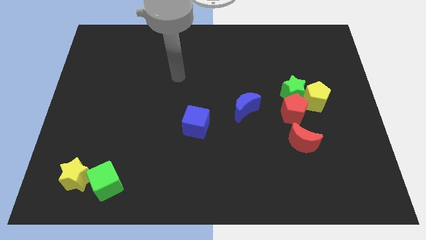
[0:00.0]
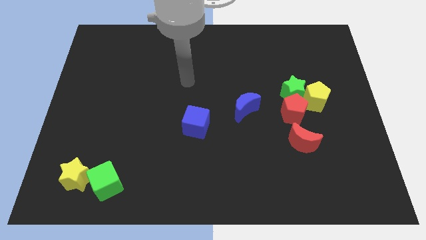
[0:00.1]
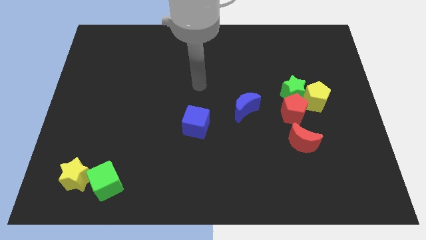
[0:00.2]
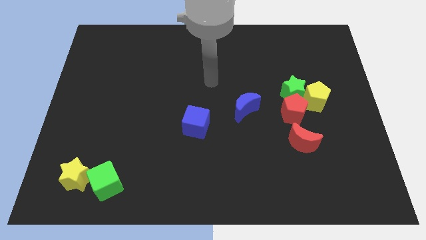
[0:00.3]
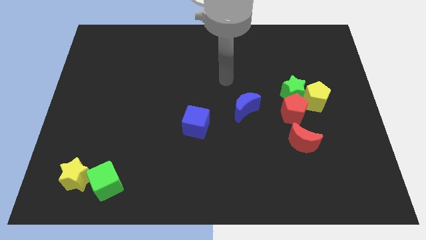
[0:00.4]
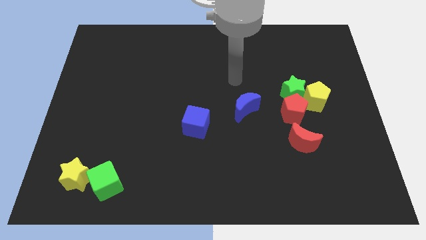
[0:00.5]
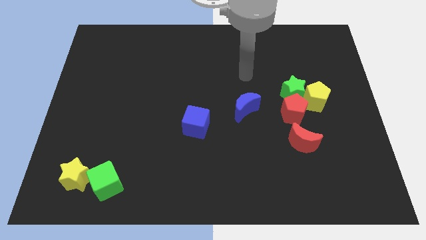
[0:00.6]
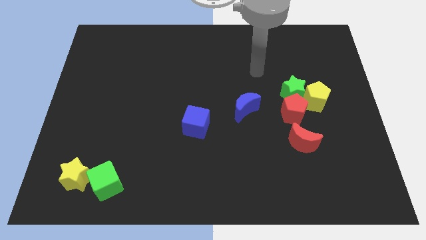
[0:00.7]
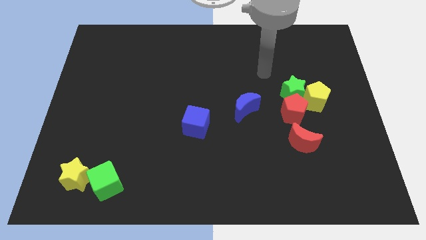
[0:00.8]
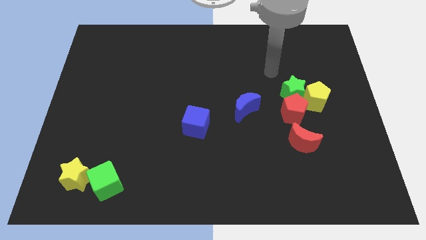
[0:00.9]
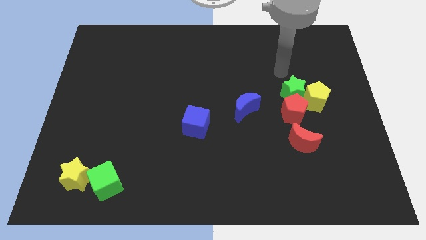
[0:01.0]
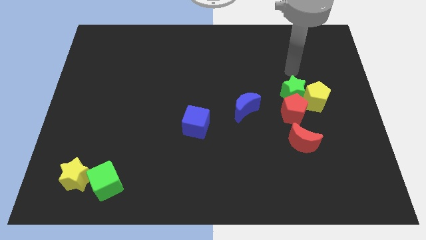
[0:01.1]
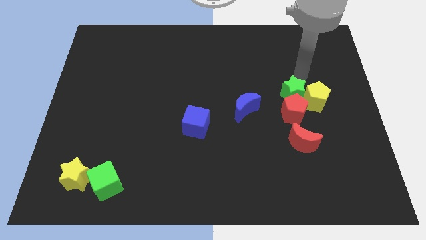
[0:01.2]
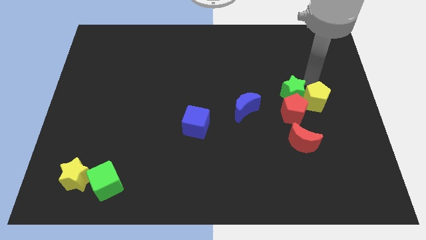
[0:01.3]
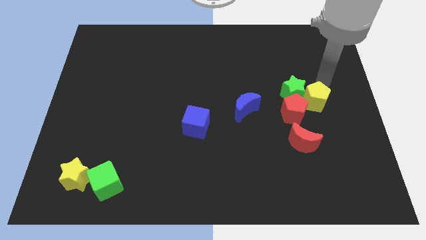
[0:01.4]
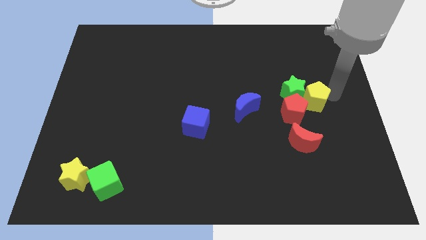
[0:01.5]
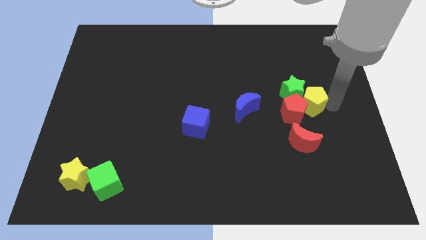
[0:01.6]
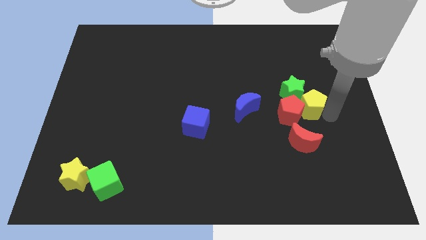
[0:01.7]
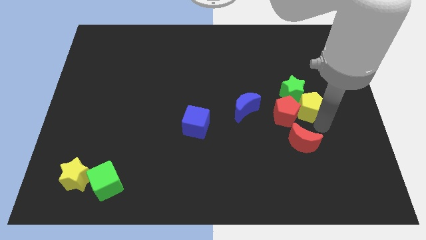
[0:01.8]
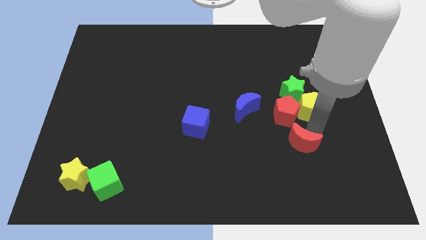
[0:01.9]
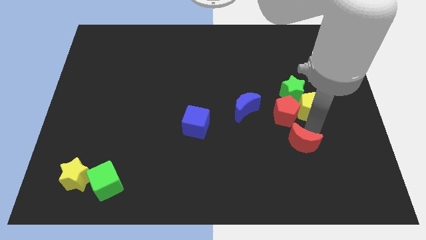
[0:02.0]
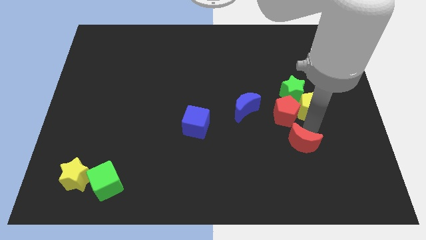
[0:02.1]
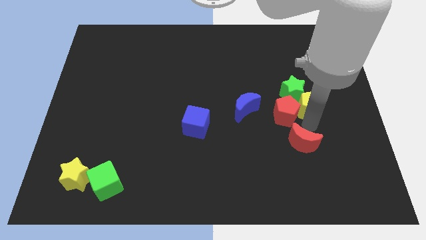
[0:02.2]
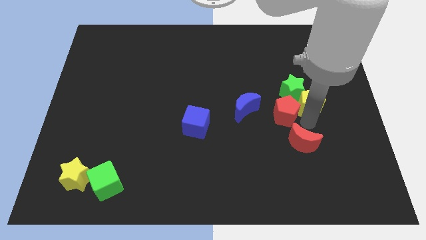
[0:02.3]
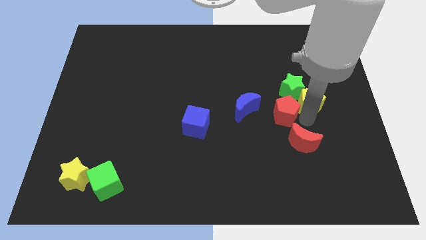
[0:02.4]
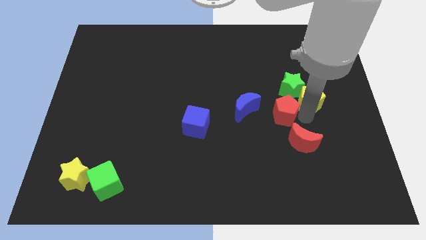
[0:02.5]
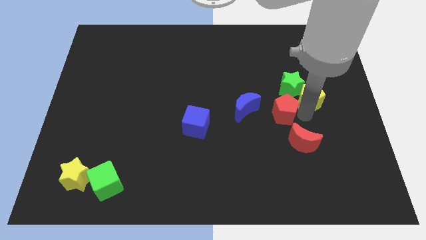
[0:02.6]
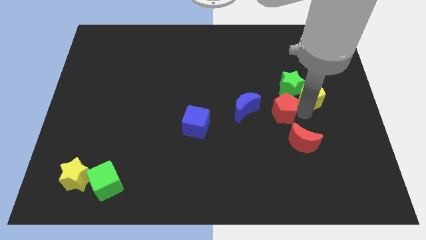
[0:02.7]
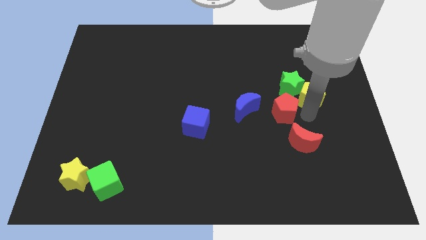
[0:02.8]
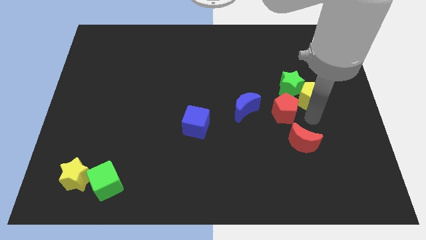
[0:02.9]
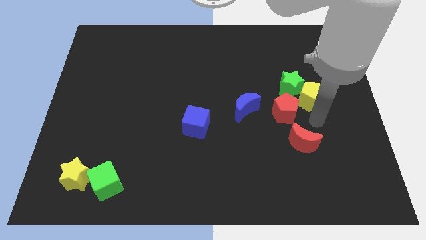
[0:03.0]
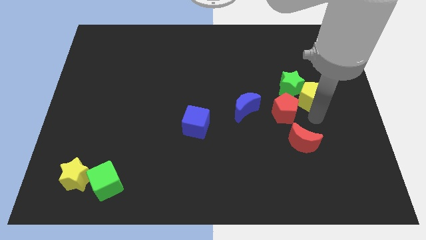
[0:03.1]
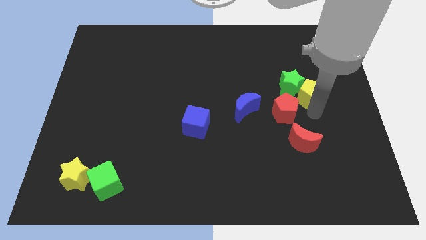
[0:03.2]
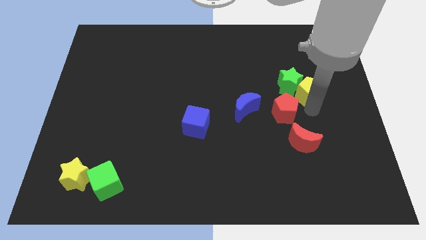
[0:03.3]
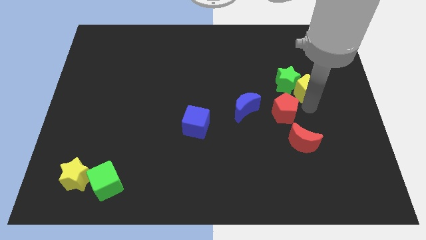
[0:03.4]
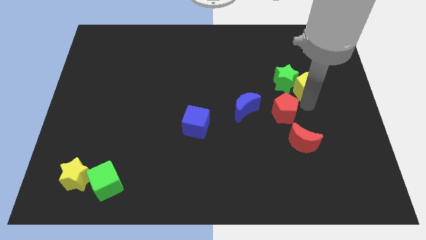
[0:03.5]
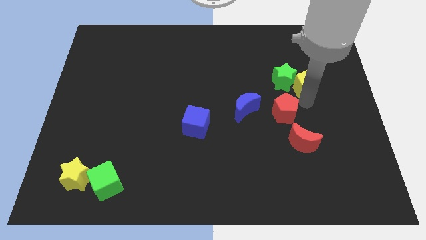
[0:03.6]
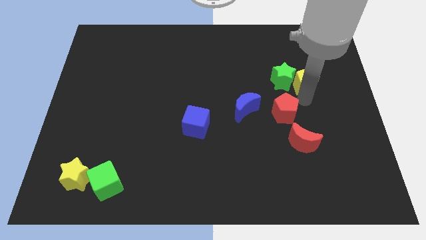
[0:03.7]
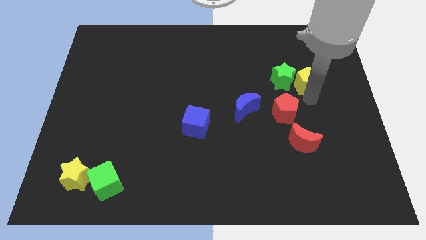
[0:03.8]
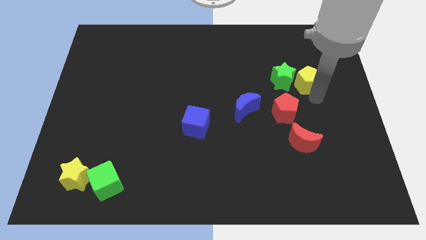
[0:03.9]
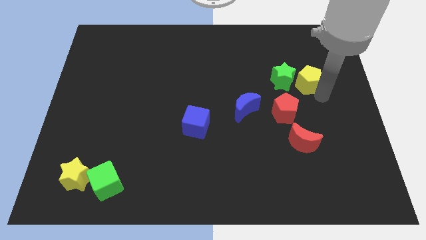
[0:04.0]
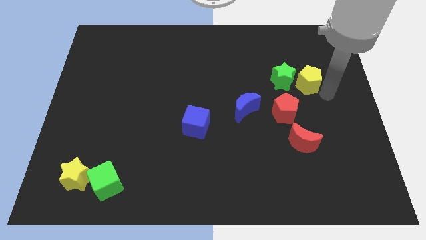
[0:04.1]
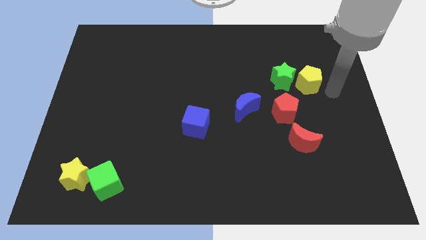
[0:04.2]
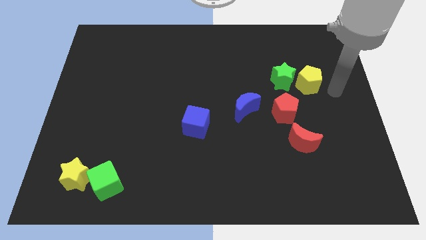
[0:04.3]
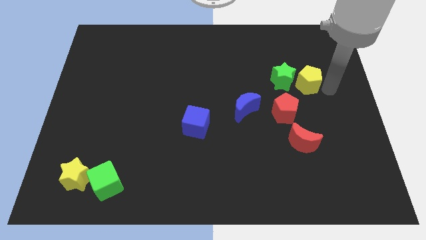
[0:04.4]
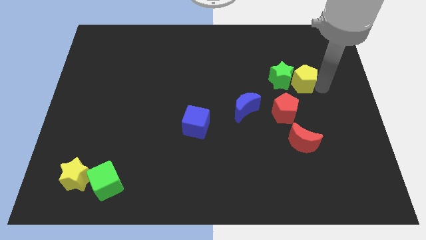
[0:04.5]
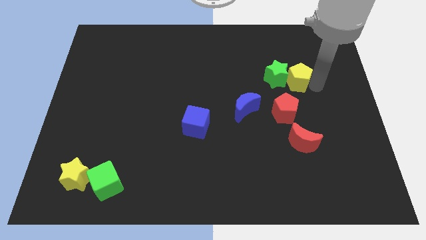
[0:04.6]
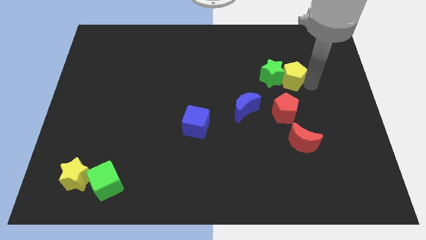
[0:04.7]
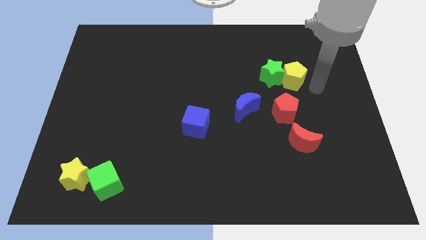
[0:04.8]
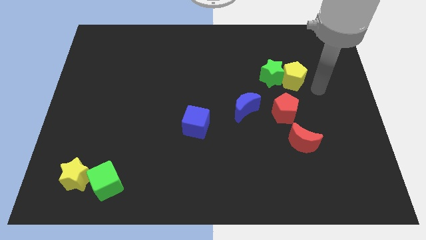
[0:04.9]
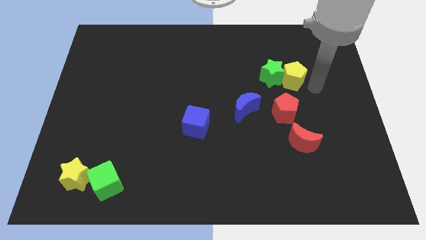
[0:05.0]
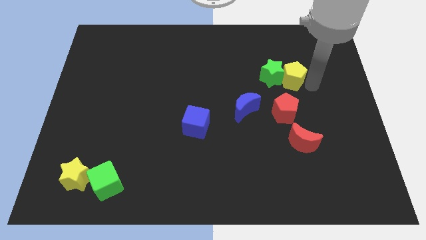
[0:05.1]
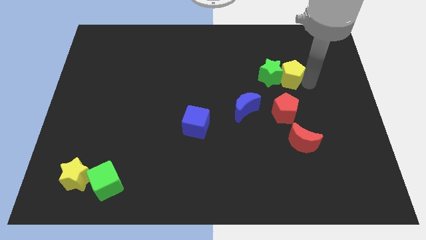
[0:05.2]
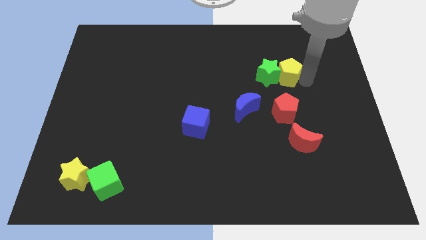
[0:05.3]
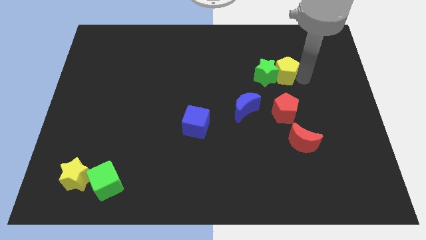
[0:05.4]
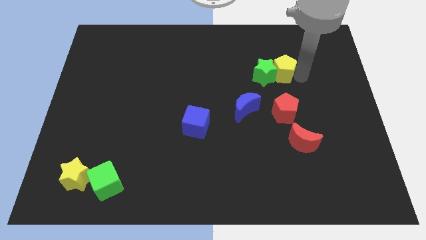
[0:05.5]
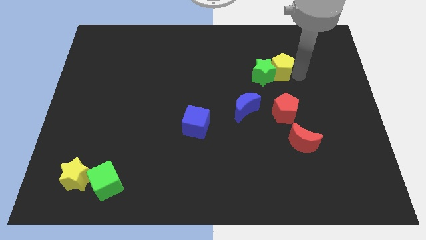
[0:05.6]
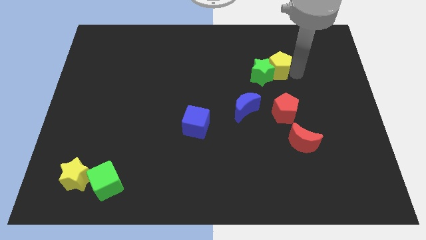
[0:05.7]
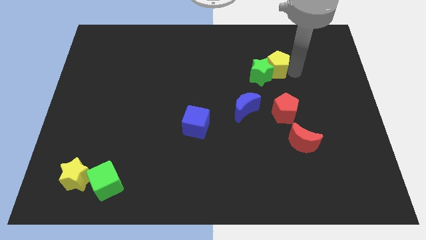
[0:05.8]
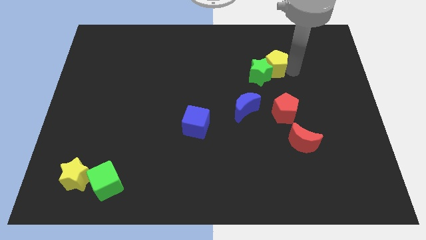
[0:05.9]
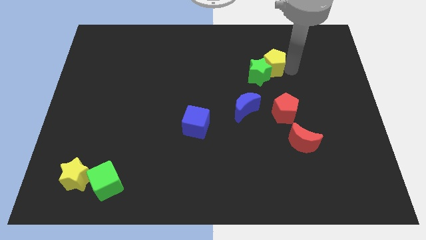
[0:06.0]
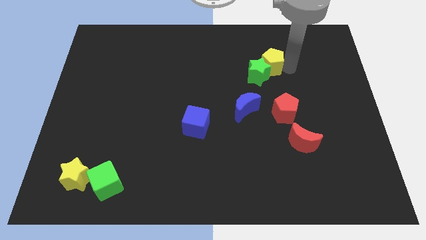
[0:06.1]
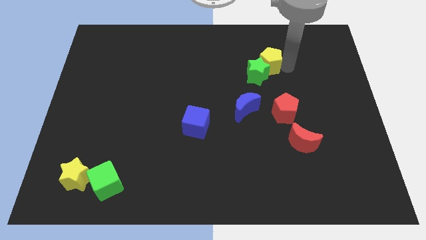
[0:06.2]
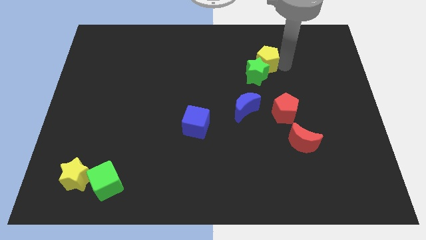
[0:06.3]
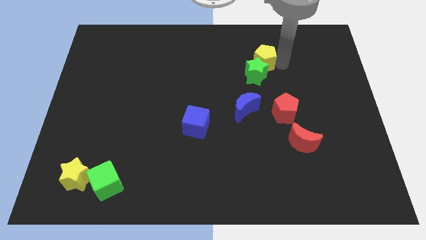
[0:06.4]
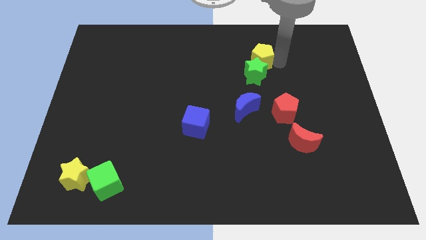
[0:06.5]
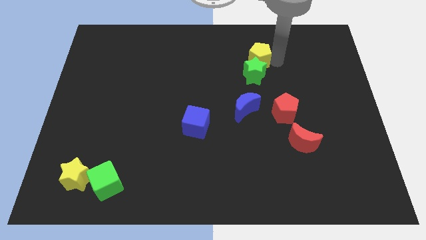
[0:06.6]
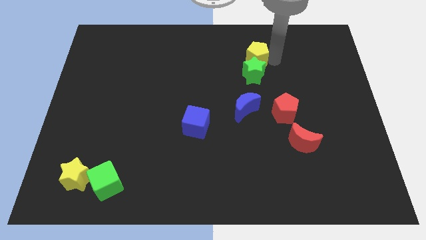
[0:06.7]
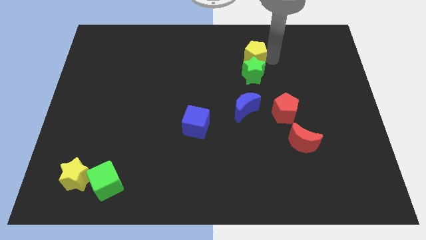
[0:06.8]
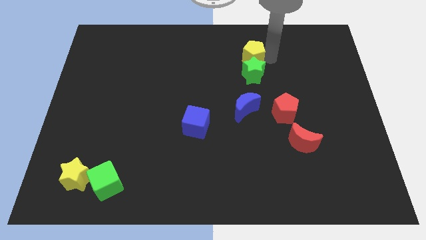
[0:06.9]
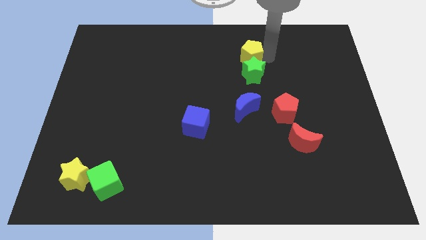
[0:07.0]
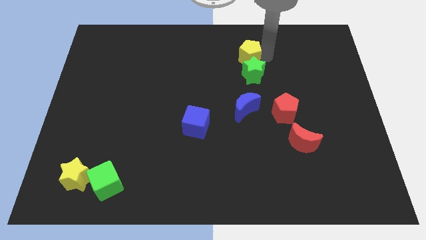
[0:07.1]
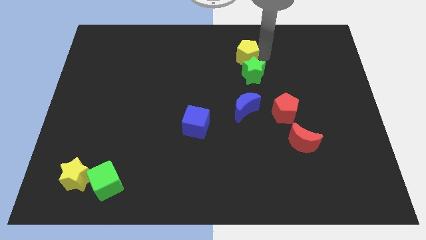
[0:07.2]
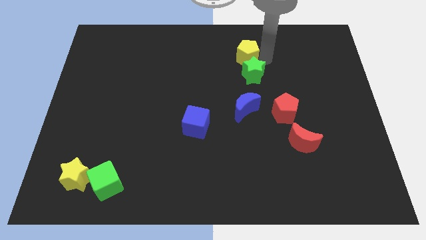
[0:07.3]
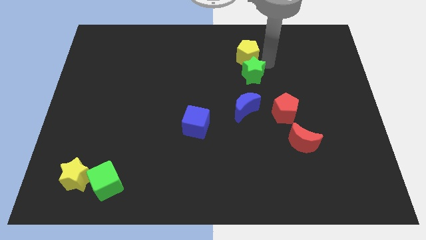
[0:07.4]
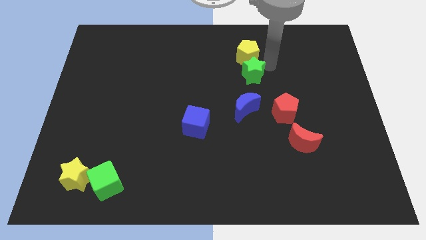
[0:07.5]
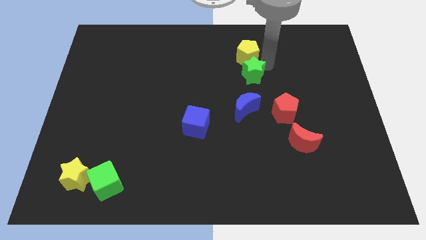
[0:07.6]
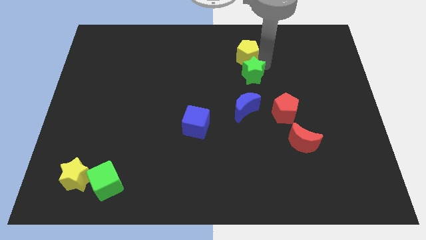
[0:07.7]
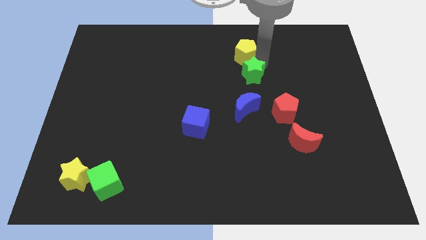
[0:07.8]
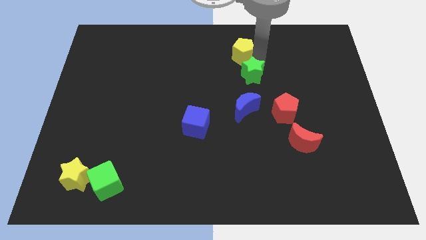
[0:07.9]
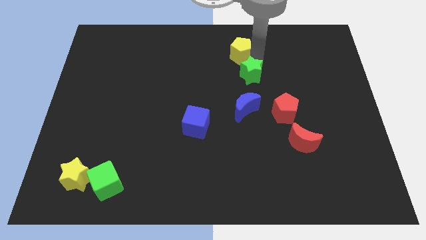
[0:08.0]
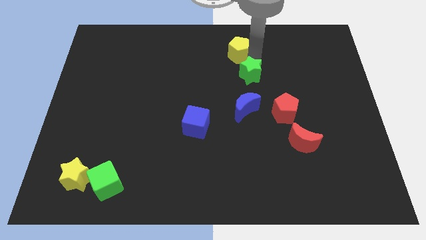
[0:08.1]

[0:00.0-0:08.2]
slide the yellow pentagon to the top side
